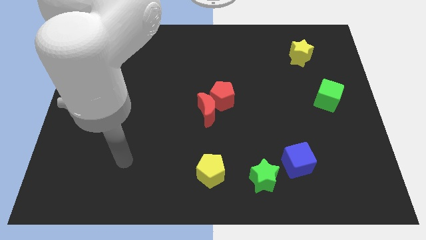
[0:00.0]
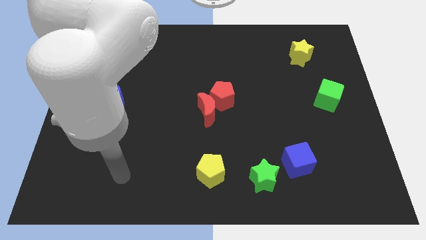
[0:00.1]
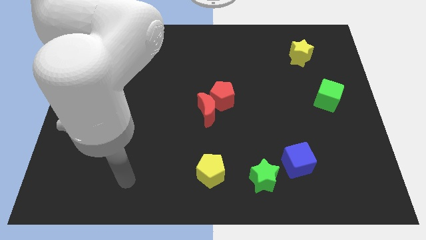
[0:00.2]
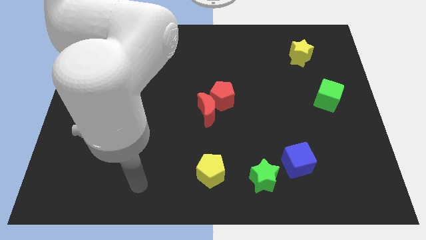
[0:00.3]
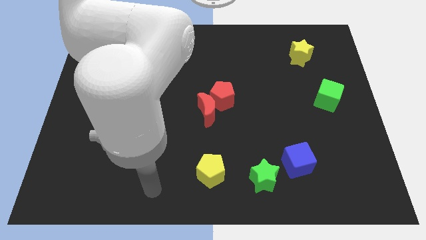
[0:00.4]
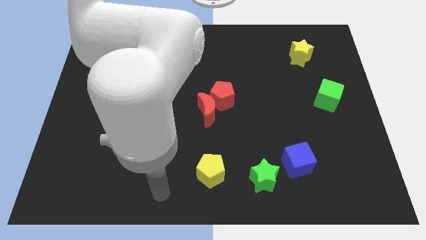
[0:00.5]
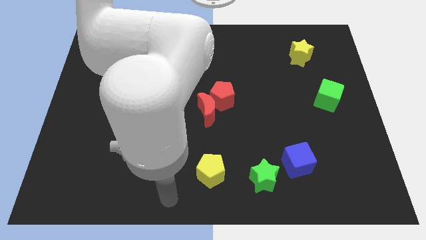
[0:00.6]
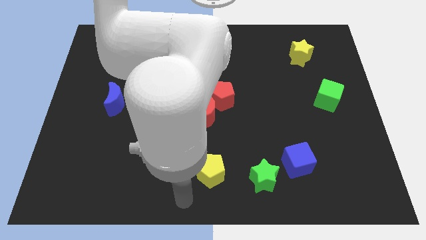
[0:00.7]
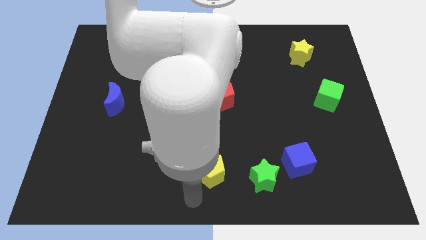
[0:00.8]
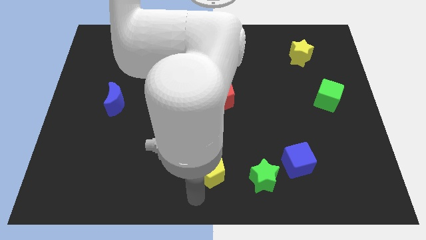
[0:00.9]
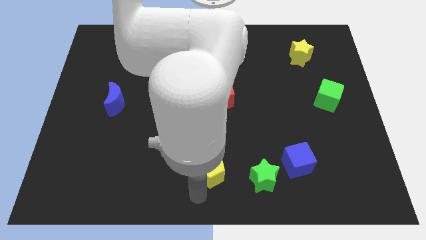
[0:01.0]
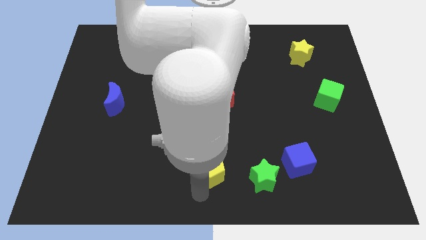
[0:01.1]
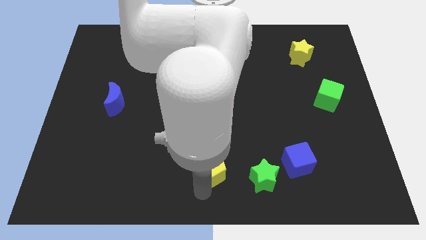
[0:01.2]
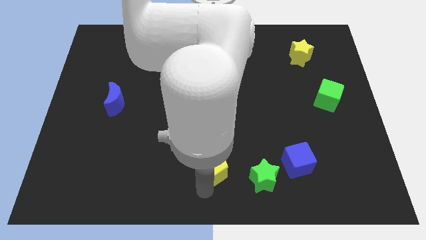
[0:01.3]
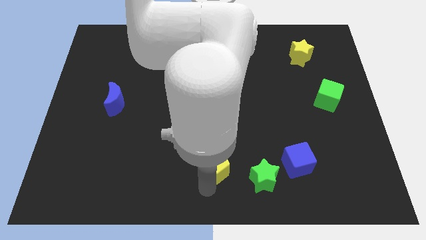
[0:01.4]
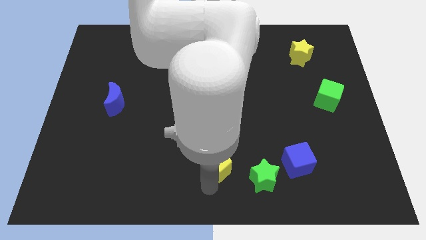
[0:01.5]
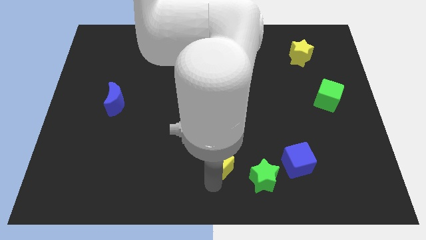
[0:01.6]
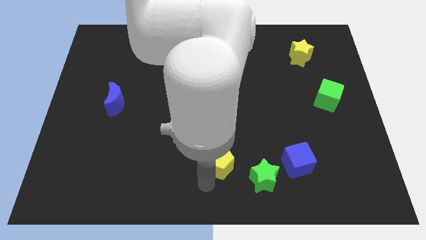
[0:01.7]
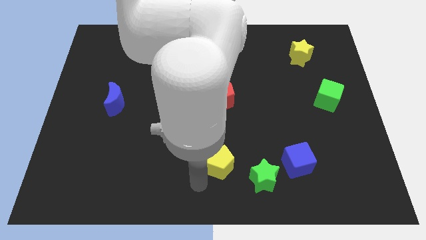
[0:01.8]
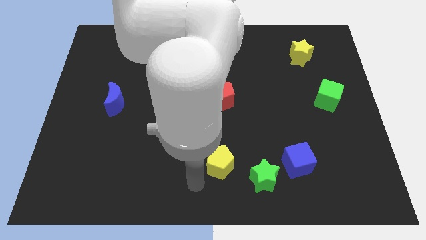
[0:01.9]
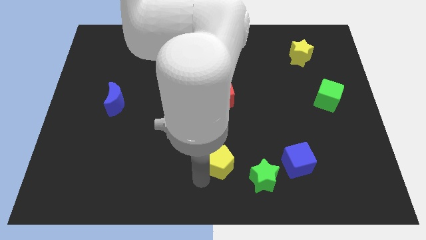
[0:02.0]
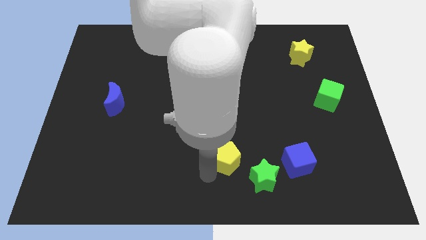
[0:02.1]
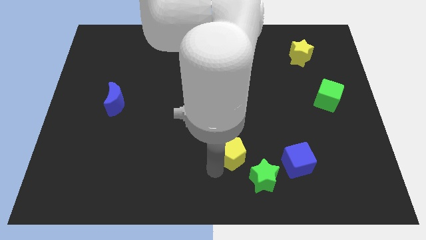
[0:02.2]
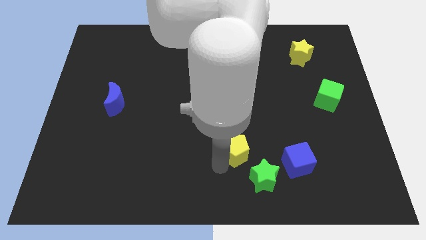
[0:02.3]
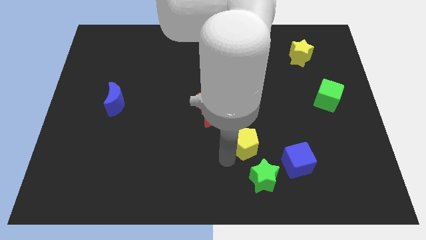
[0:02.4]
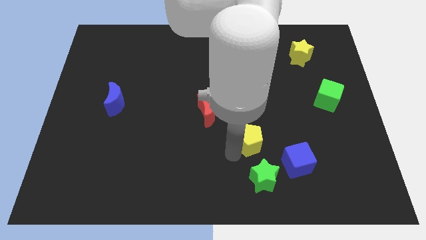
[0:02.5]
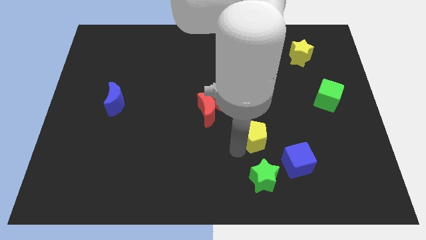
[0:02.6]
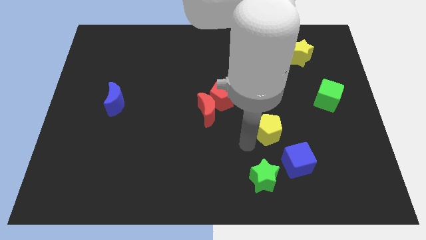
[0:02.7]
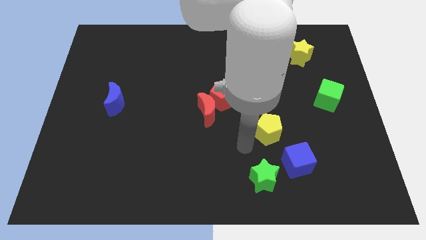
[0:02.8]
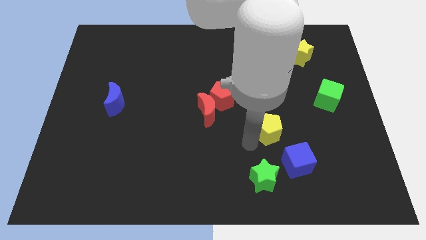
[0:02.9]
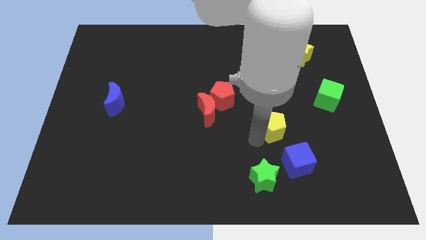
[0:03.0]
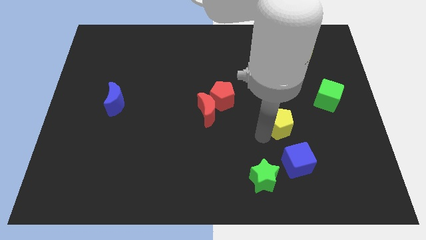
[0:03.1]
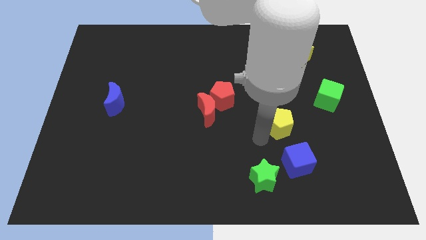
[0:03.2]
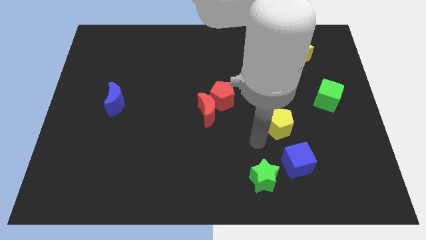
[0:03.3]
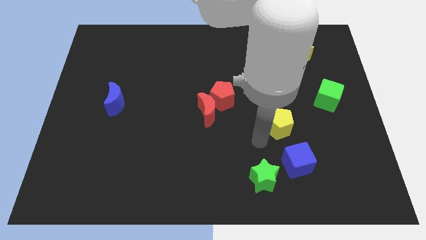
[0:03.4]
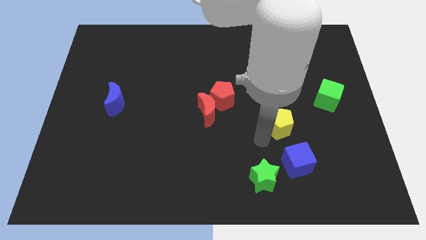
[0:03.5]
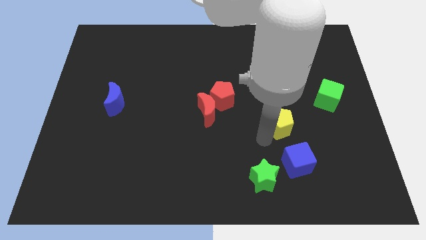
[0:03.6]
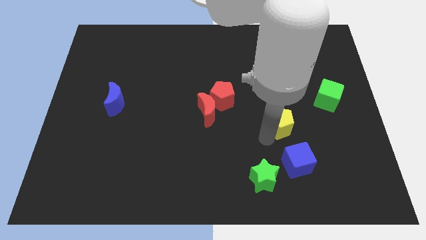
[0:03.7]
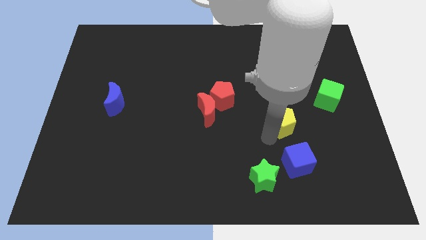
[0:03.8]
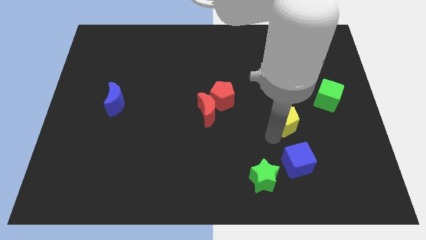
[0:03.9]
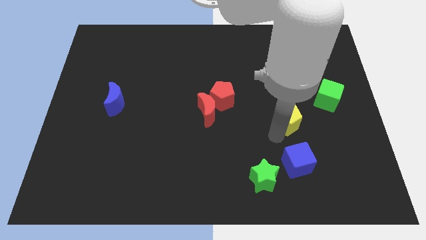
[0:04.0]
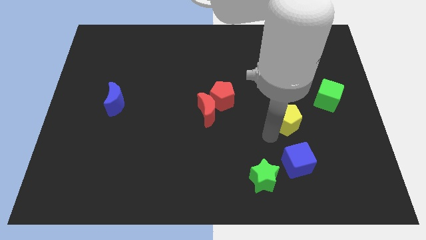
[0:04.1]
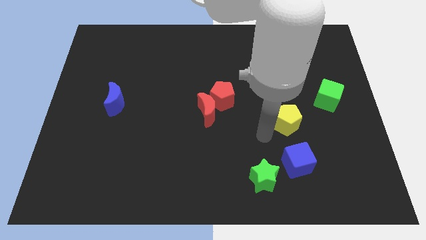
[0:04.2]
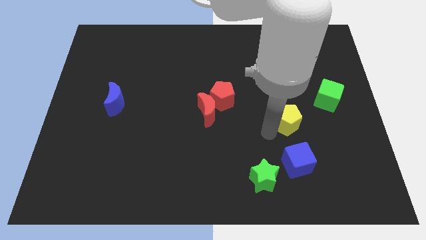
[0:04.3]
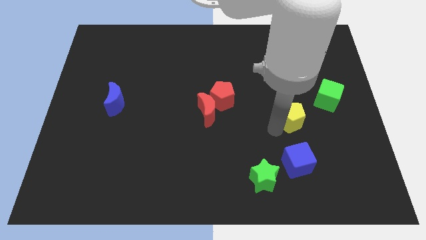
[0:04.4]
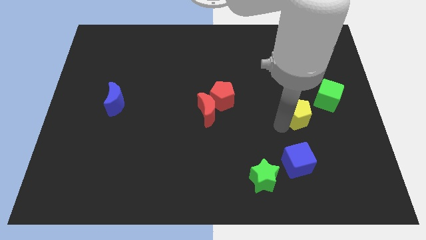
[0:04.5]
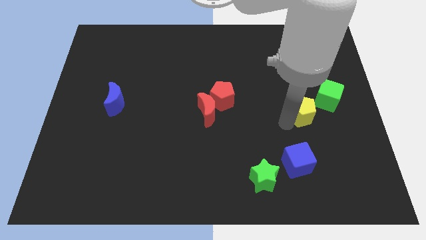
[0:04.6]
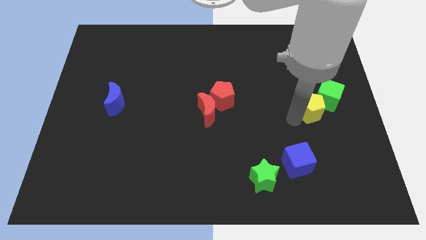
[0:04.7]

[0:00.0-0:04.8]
slide the yellow pentagon close to the green cube

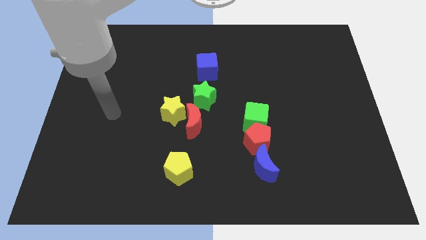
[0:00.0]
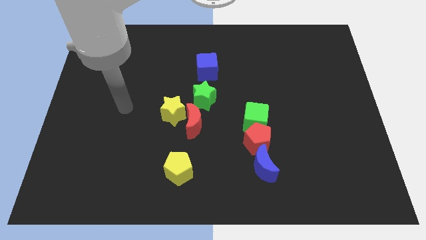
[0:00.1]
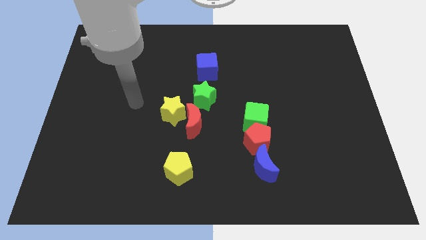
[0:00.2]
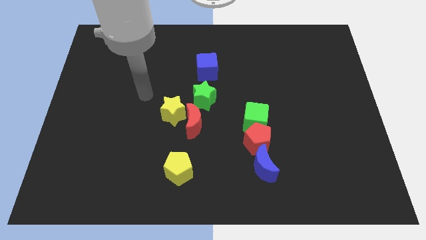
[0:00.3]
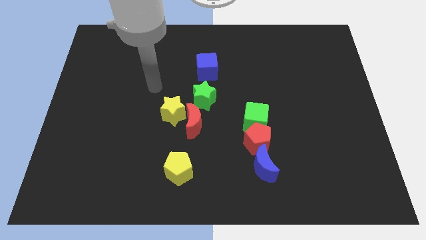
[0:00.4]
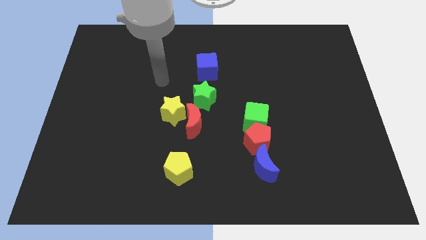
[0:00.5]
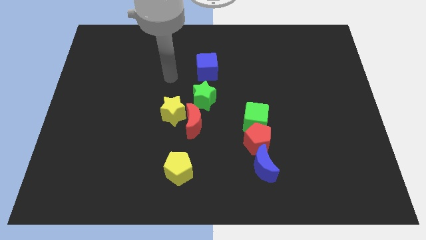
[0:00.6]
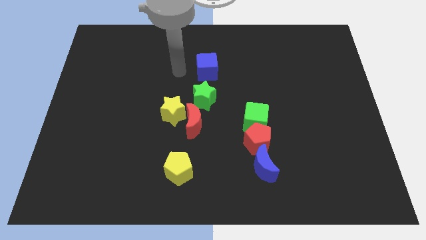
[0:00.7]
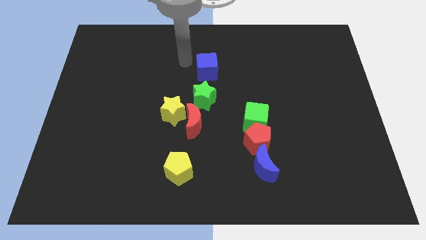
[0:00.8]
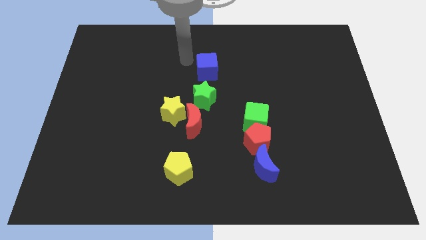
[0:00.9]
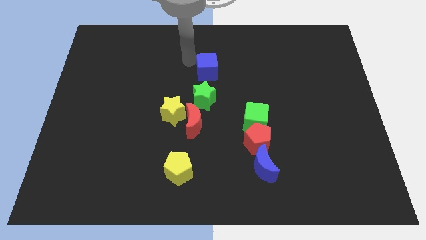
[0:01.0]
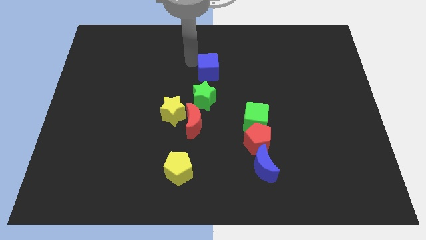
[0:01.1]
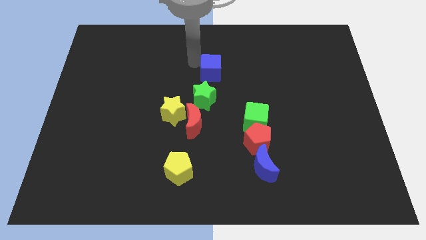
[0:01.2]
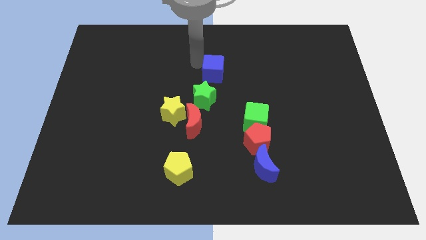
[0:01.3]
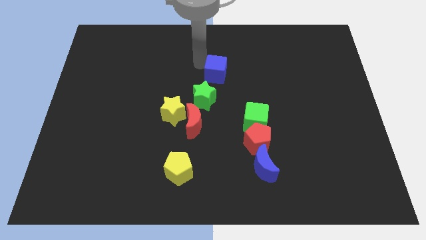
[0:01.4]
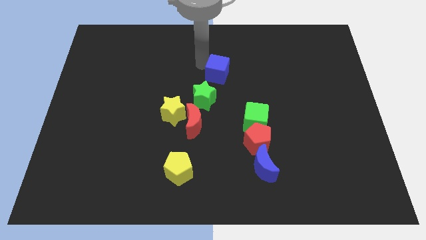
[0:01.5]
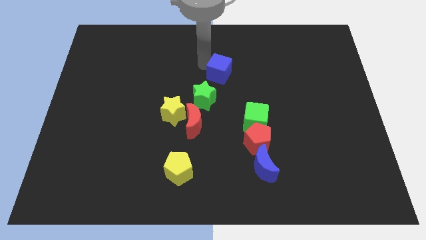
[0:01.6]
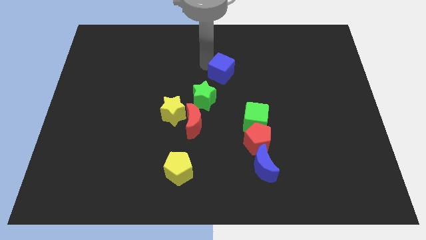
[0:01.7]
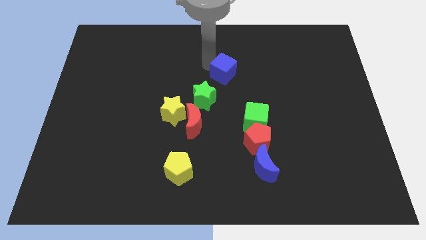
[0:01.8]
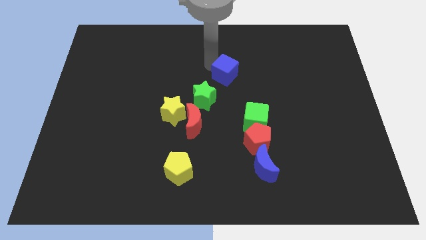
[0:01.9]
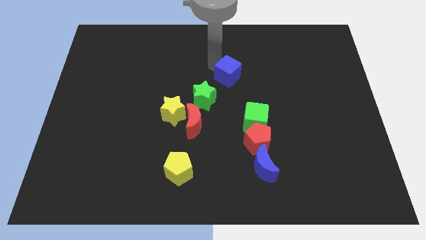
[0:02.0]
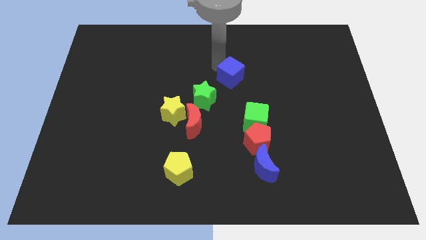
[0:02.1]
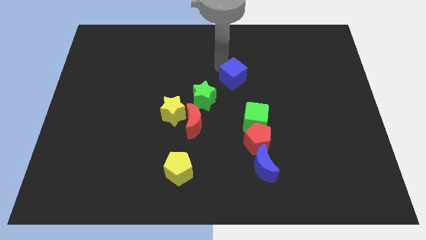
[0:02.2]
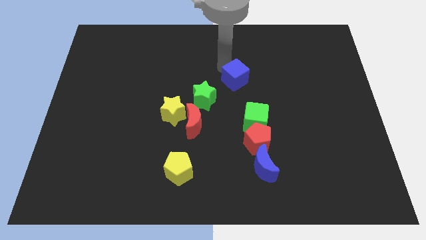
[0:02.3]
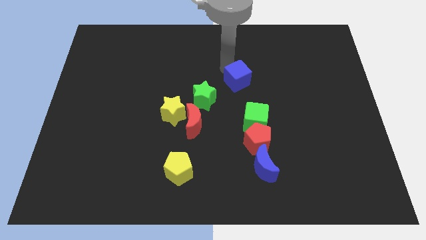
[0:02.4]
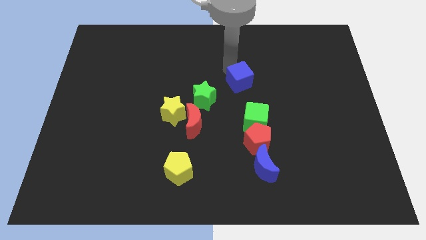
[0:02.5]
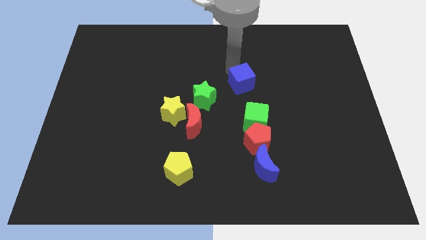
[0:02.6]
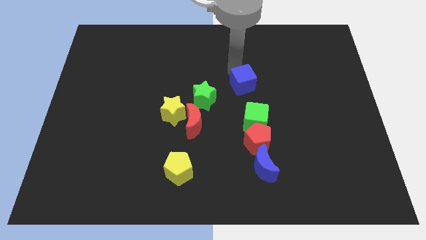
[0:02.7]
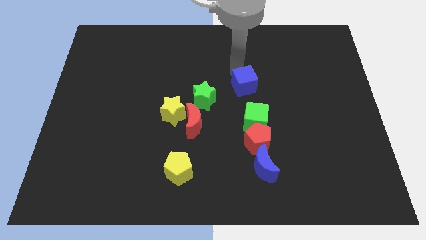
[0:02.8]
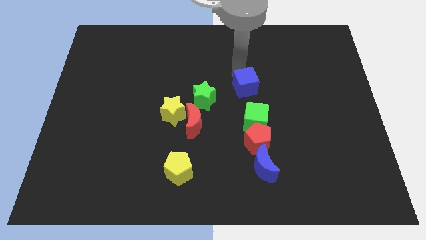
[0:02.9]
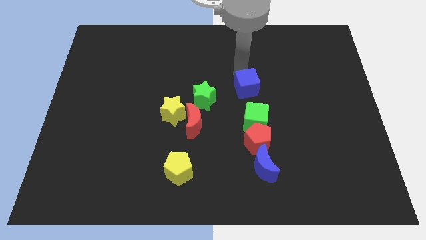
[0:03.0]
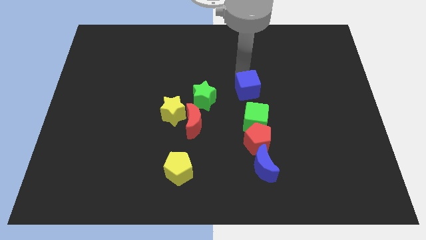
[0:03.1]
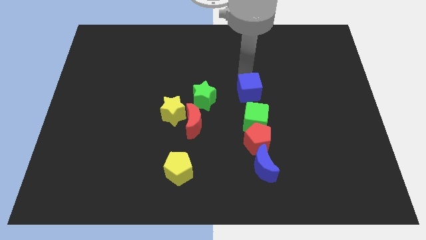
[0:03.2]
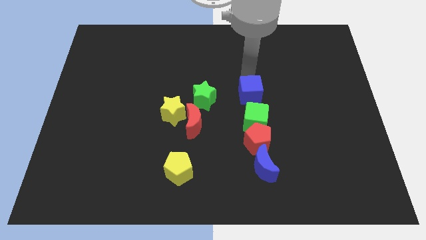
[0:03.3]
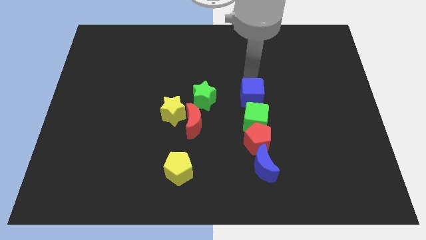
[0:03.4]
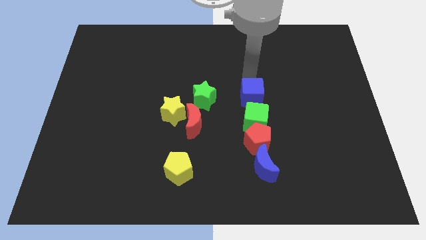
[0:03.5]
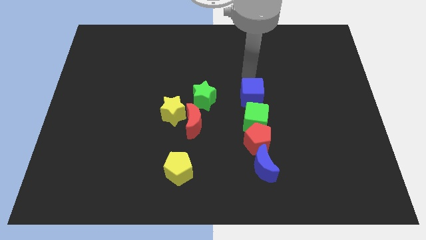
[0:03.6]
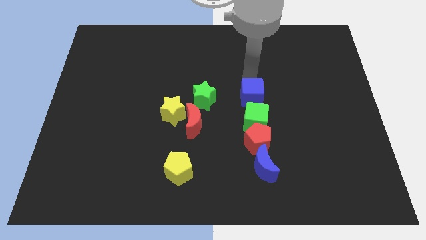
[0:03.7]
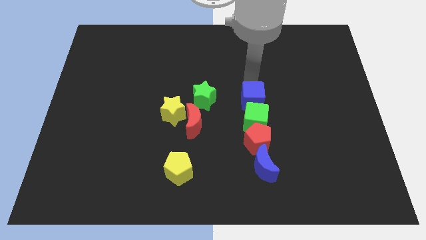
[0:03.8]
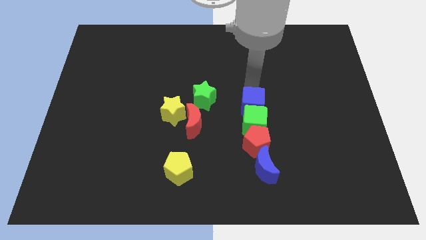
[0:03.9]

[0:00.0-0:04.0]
move the blue cube towards the green cube
